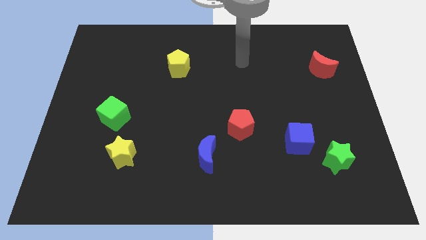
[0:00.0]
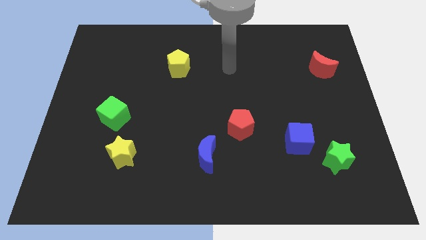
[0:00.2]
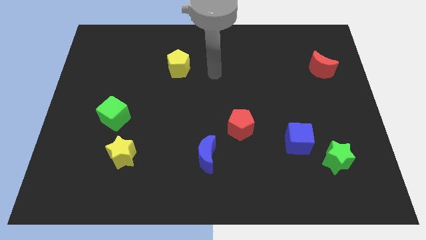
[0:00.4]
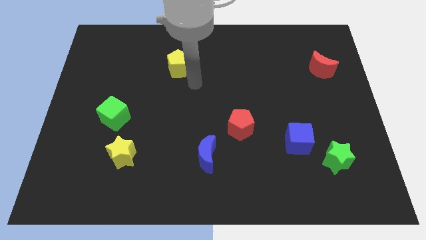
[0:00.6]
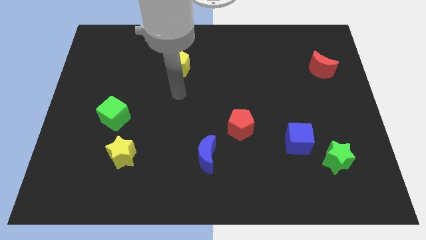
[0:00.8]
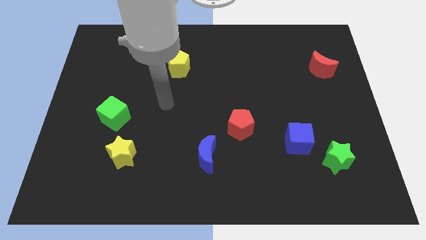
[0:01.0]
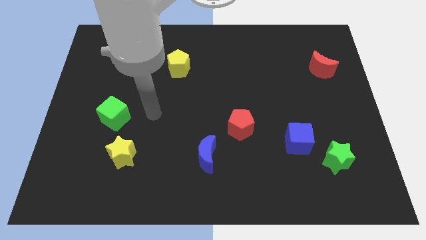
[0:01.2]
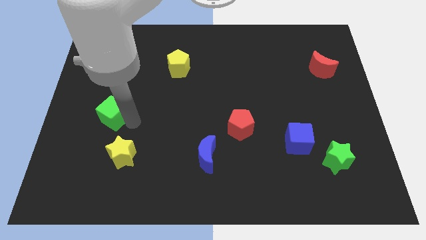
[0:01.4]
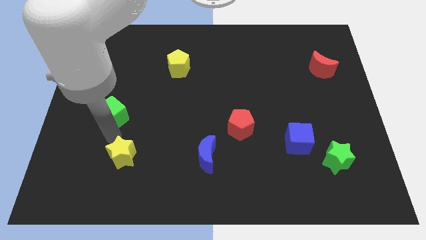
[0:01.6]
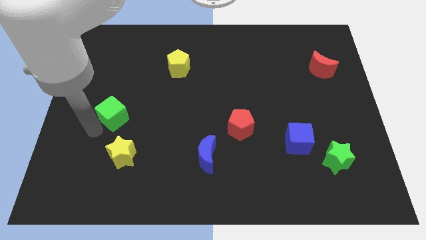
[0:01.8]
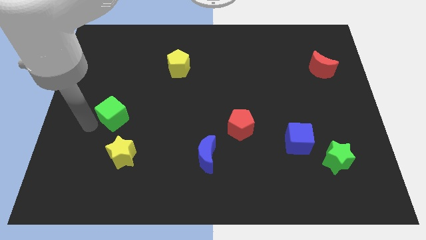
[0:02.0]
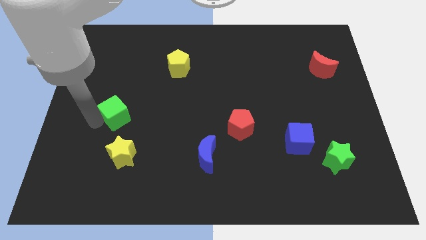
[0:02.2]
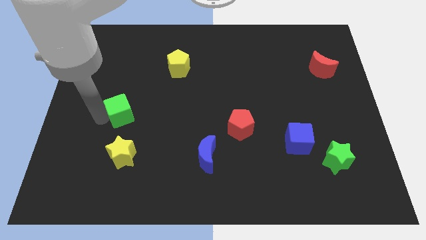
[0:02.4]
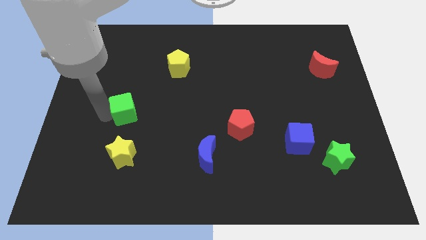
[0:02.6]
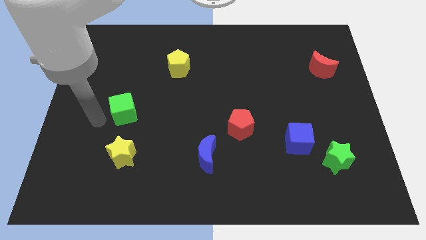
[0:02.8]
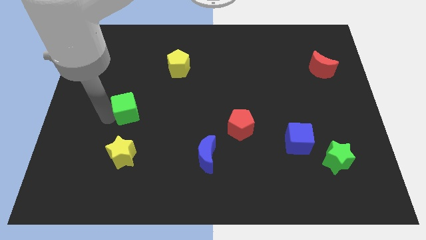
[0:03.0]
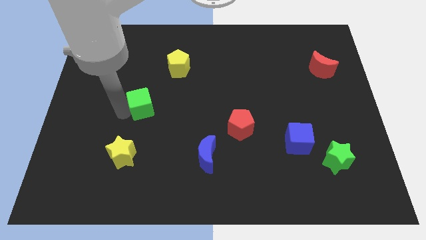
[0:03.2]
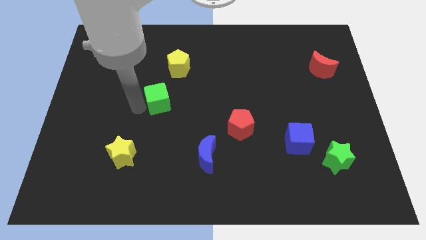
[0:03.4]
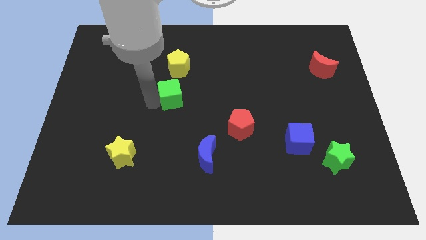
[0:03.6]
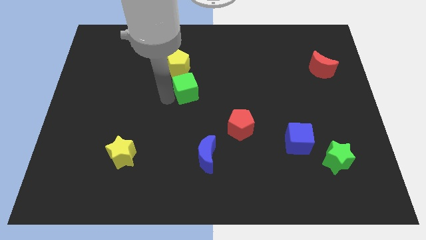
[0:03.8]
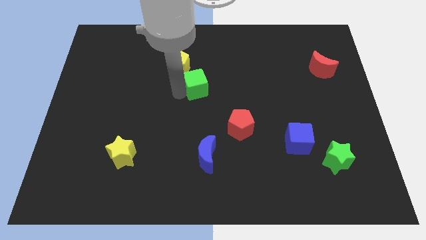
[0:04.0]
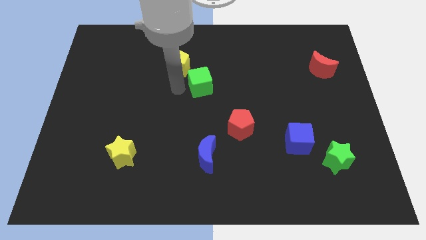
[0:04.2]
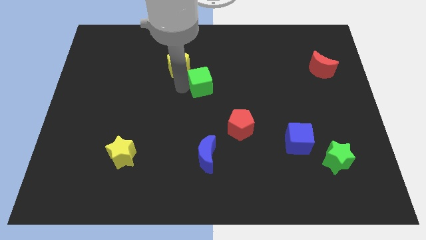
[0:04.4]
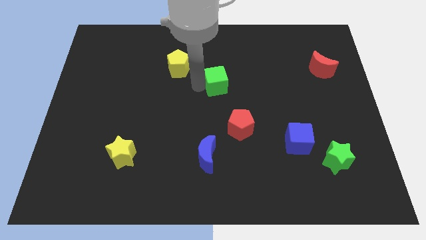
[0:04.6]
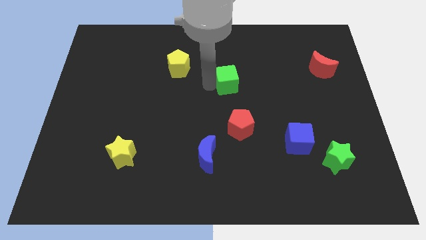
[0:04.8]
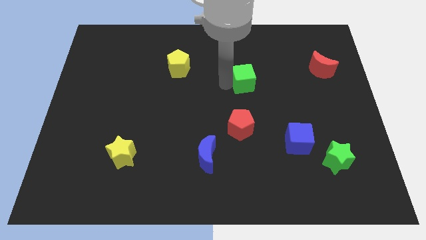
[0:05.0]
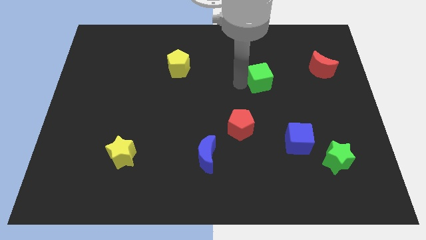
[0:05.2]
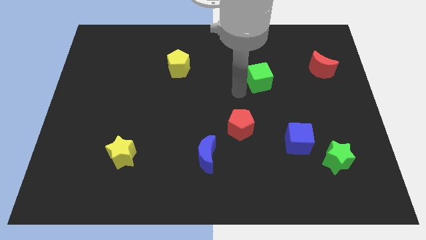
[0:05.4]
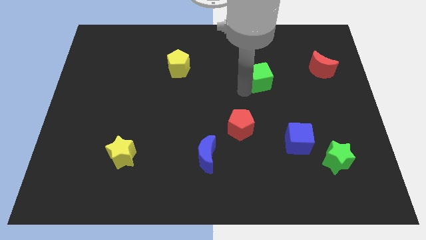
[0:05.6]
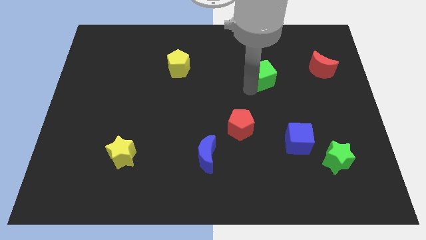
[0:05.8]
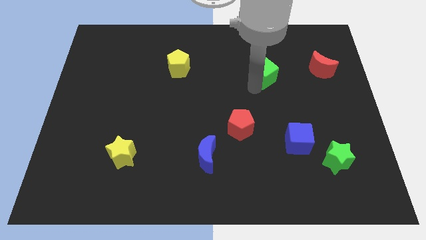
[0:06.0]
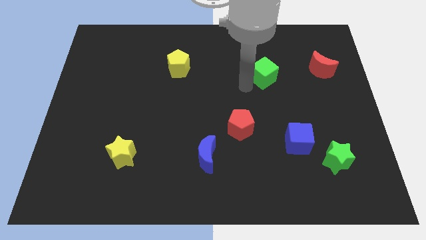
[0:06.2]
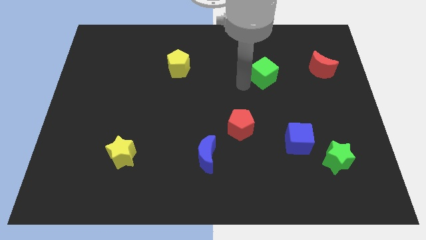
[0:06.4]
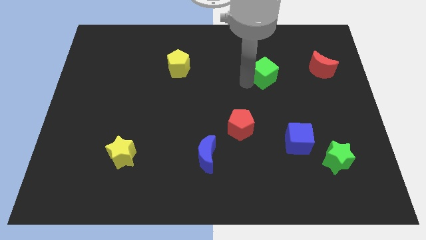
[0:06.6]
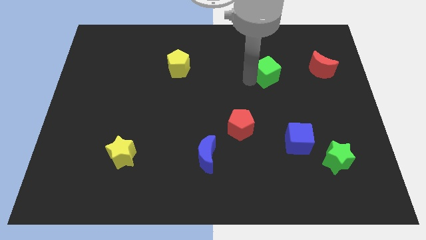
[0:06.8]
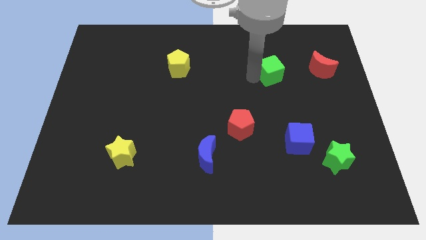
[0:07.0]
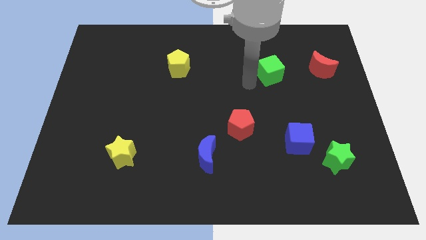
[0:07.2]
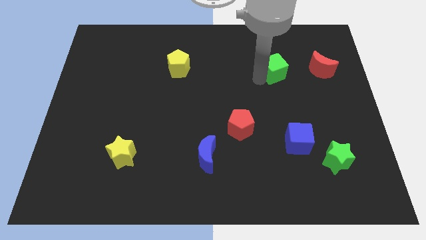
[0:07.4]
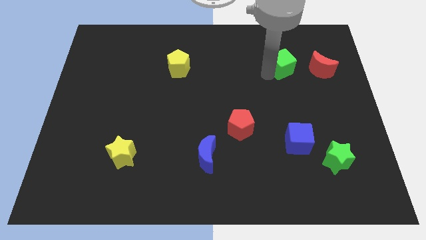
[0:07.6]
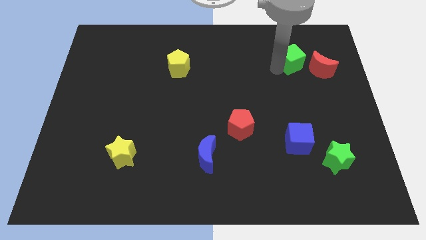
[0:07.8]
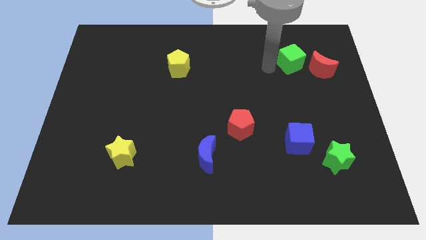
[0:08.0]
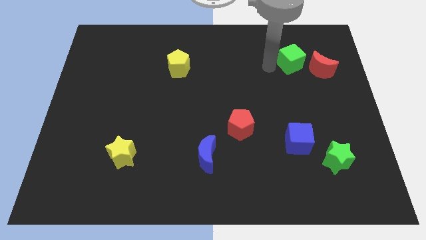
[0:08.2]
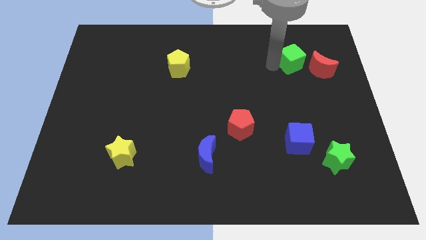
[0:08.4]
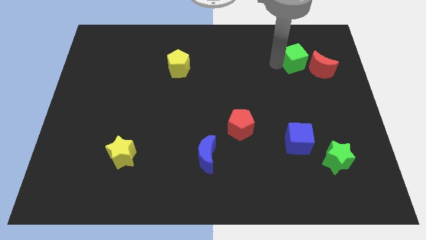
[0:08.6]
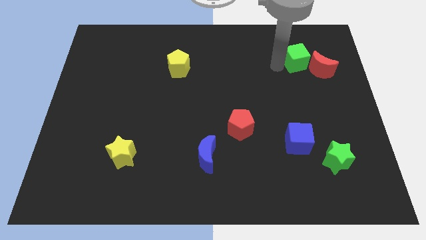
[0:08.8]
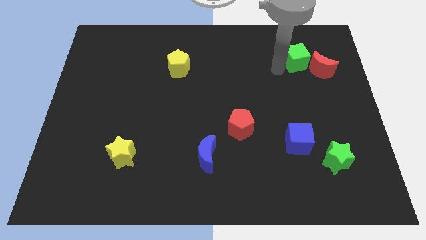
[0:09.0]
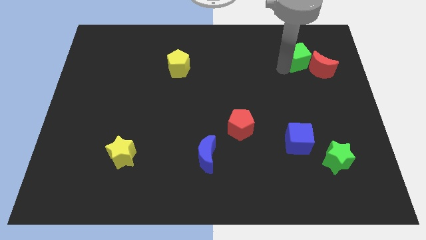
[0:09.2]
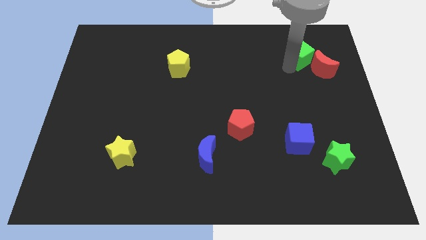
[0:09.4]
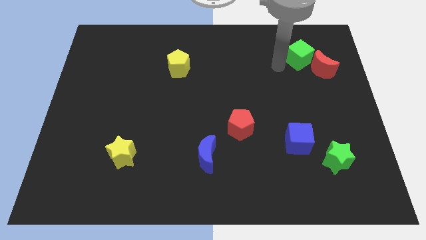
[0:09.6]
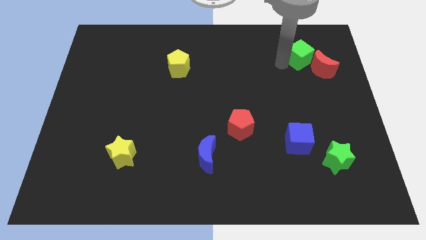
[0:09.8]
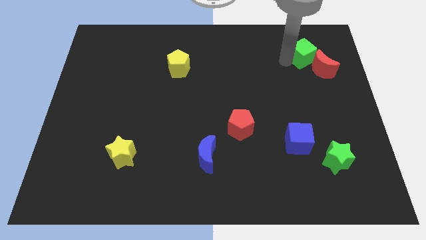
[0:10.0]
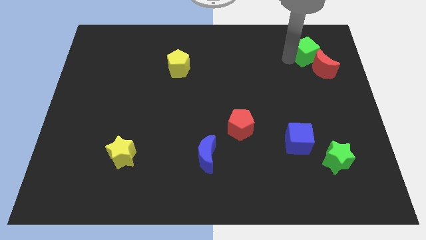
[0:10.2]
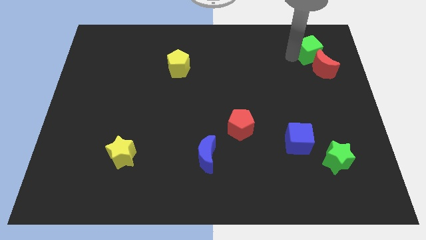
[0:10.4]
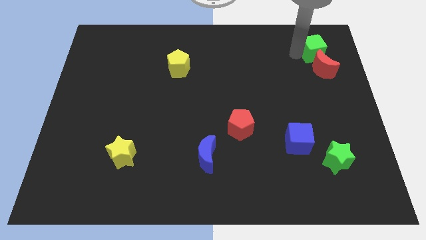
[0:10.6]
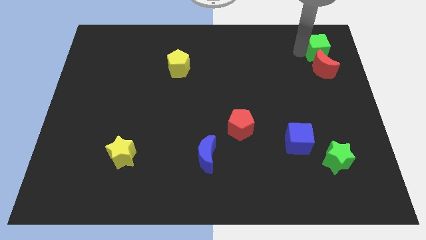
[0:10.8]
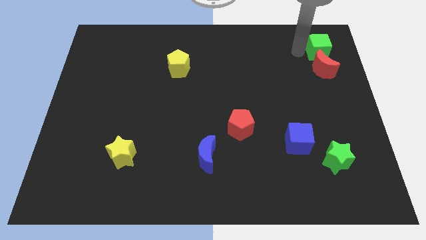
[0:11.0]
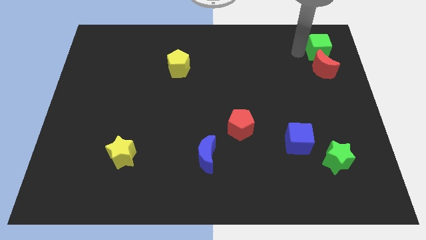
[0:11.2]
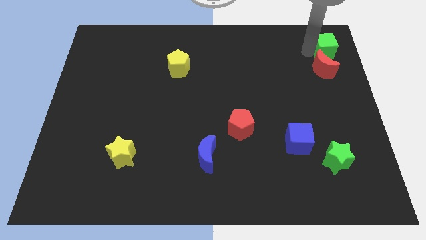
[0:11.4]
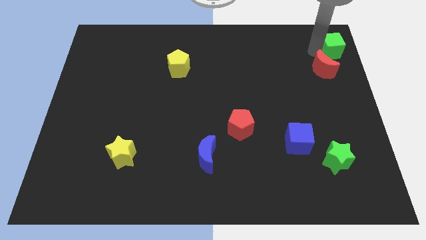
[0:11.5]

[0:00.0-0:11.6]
put the green cube to the top right
